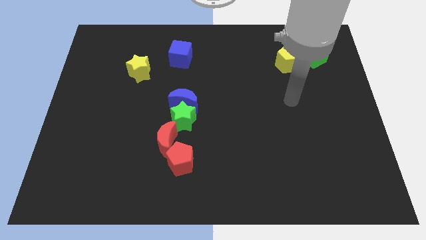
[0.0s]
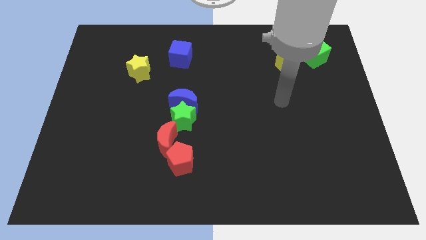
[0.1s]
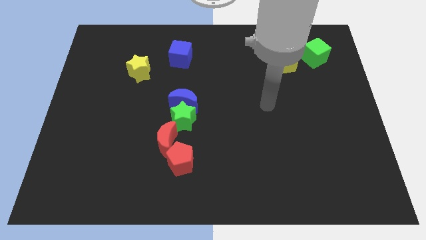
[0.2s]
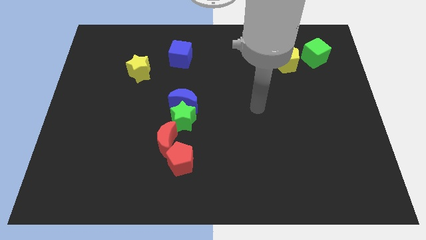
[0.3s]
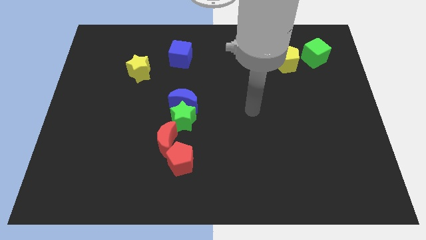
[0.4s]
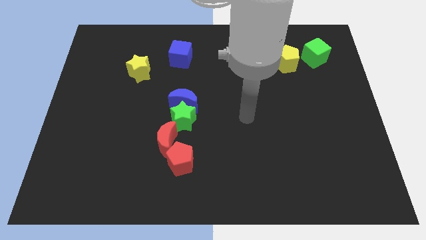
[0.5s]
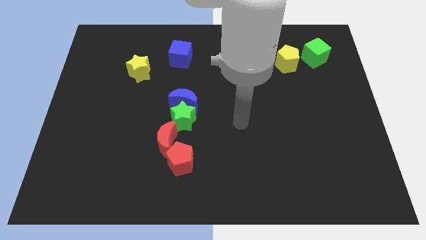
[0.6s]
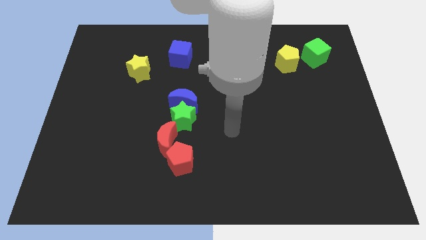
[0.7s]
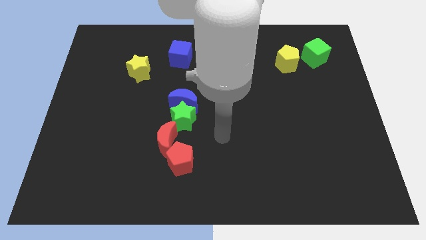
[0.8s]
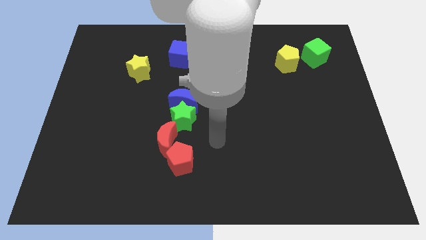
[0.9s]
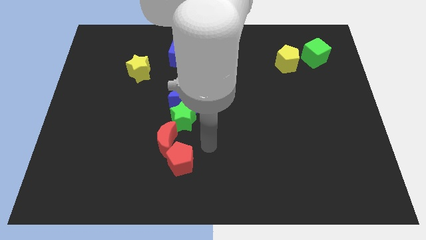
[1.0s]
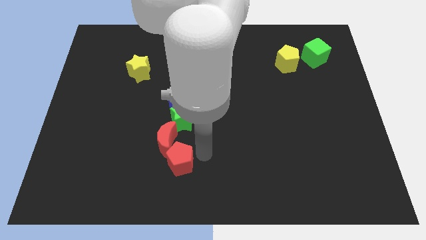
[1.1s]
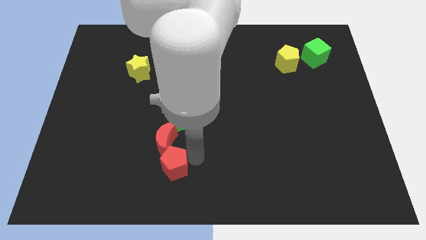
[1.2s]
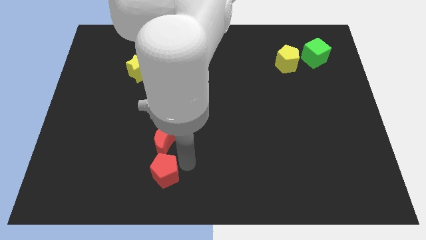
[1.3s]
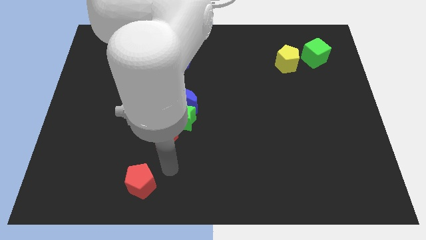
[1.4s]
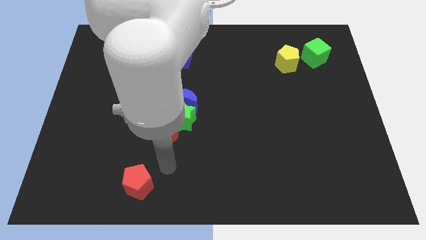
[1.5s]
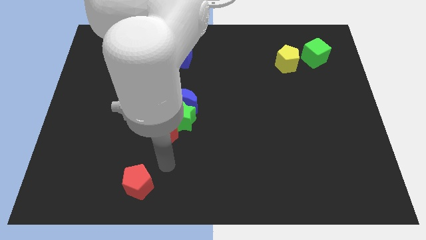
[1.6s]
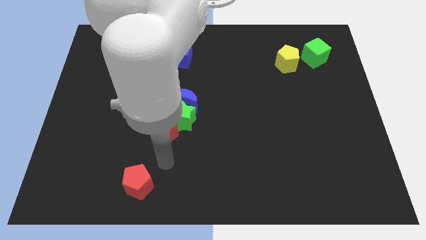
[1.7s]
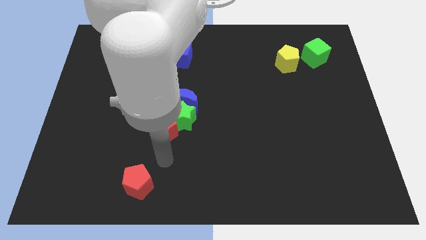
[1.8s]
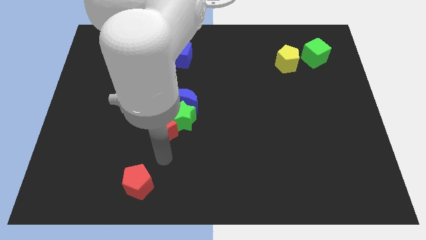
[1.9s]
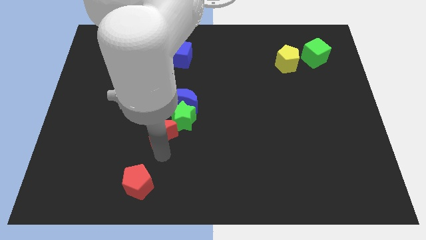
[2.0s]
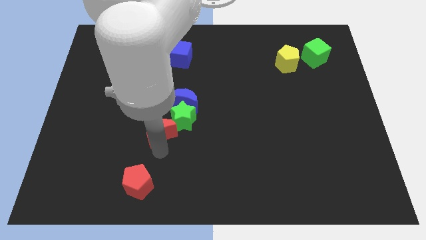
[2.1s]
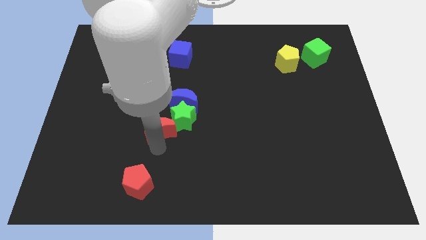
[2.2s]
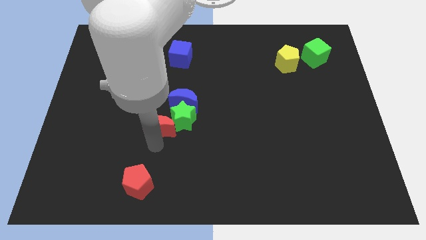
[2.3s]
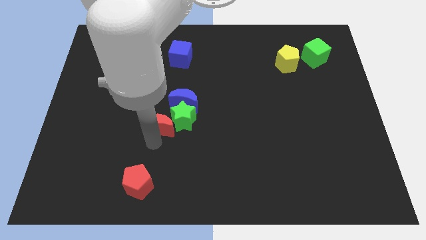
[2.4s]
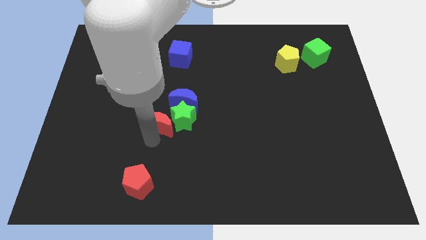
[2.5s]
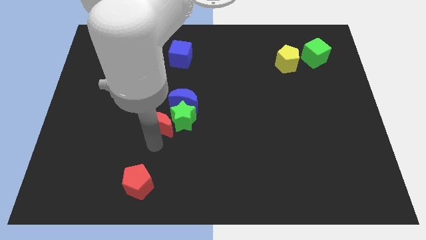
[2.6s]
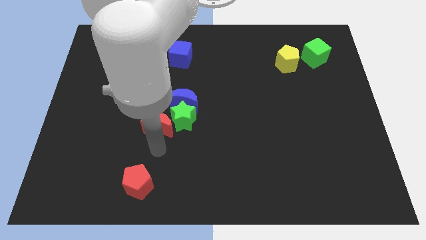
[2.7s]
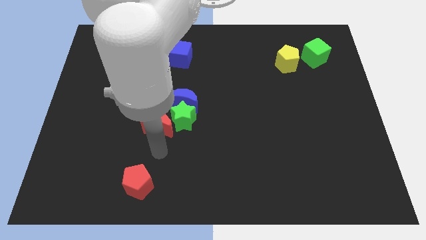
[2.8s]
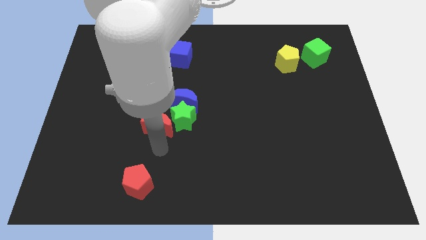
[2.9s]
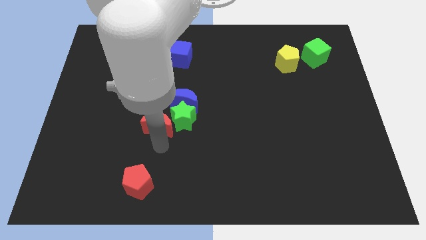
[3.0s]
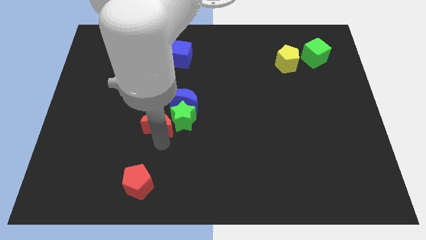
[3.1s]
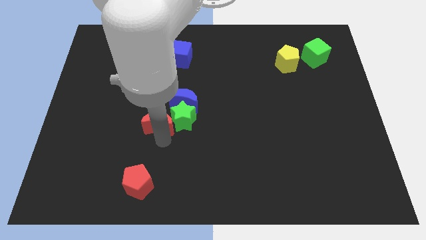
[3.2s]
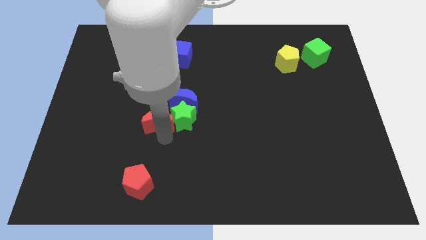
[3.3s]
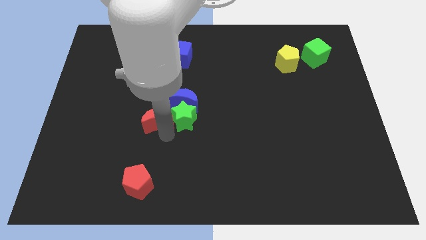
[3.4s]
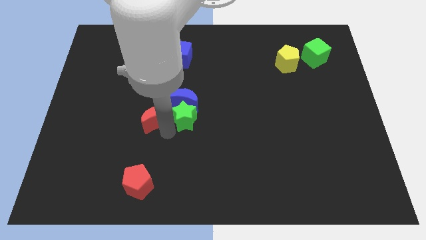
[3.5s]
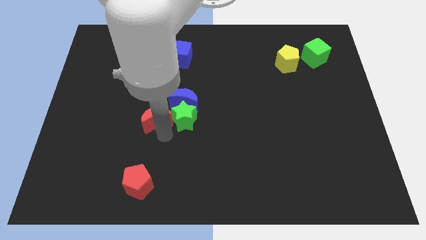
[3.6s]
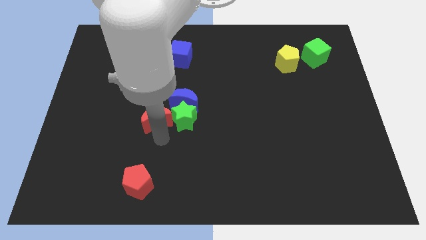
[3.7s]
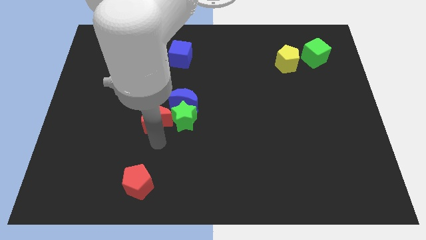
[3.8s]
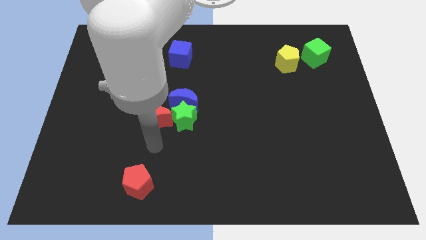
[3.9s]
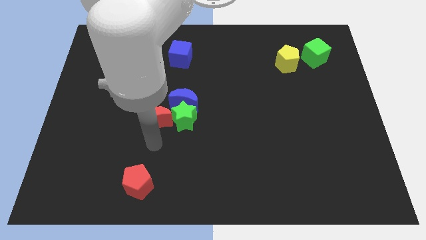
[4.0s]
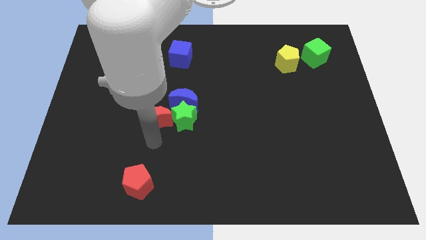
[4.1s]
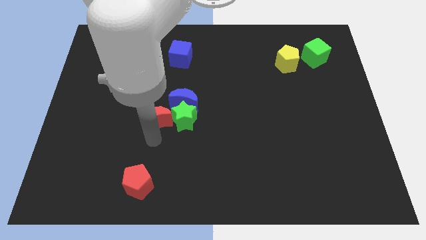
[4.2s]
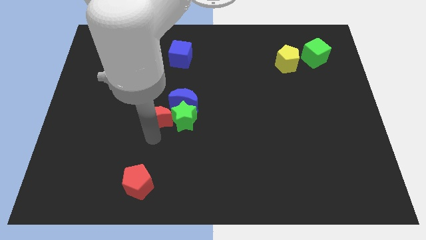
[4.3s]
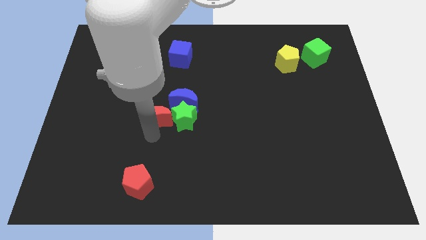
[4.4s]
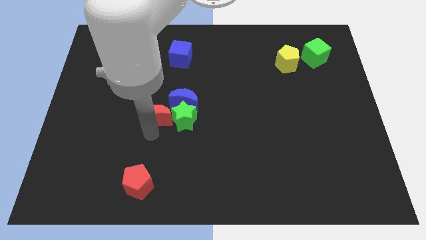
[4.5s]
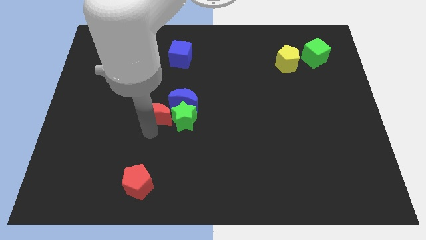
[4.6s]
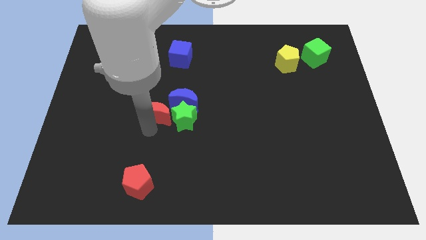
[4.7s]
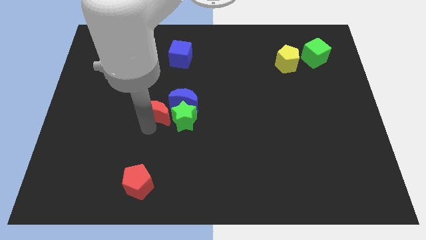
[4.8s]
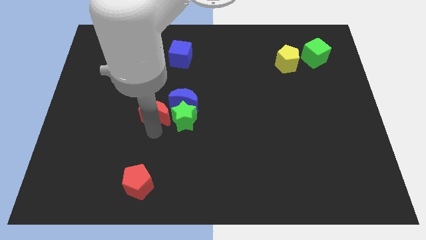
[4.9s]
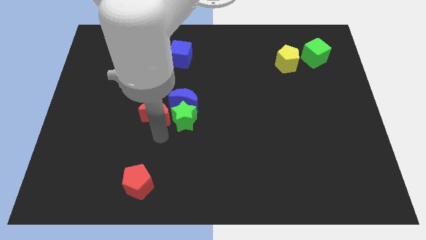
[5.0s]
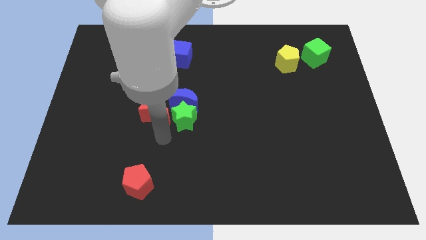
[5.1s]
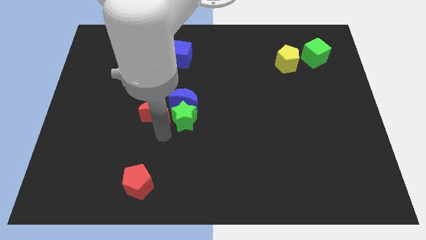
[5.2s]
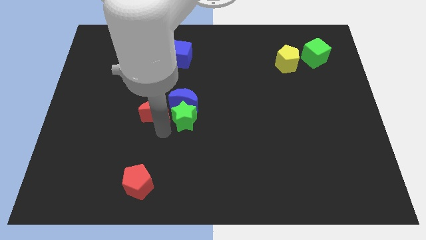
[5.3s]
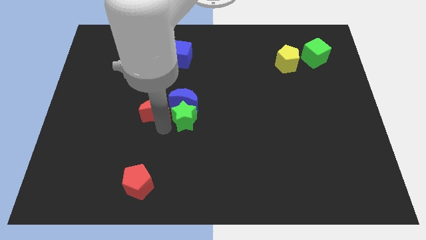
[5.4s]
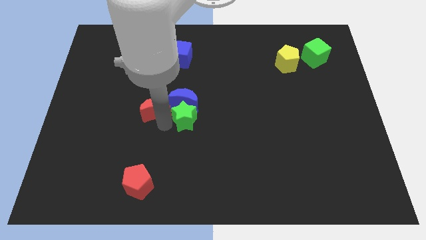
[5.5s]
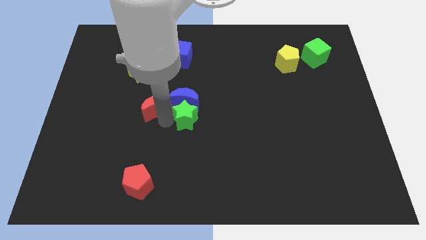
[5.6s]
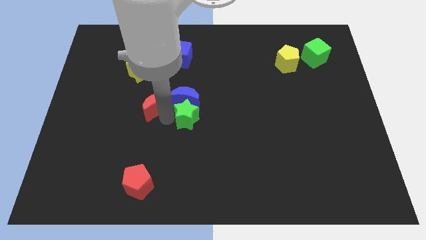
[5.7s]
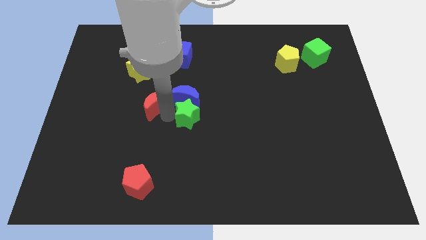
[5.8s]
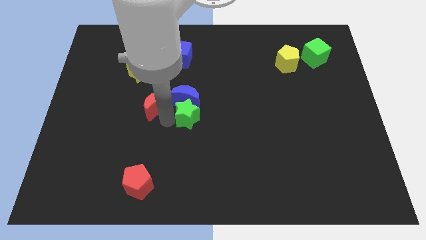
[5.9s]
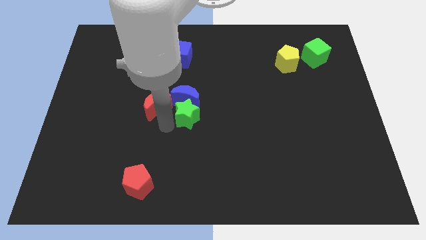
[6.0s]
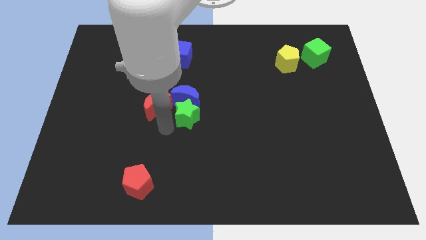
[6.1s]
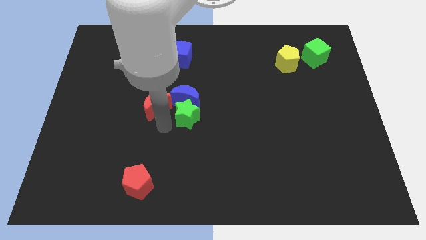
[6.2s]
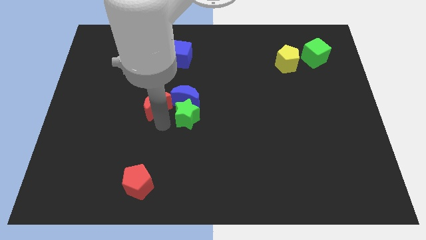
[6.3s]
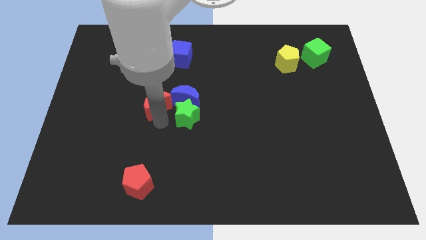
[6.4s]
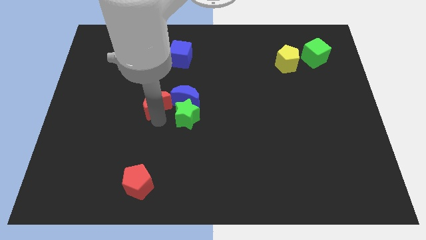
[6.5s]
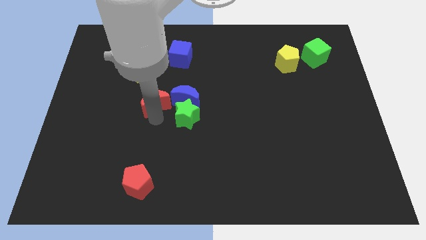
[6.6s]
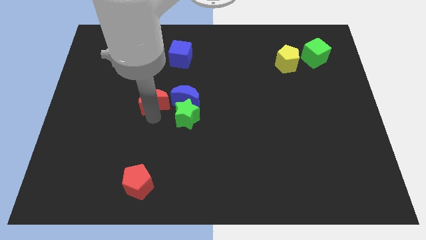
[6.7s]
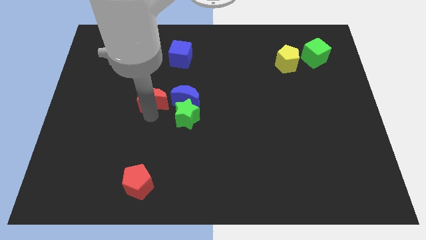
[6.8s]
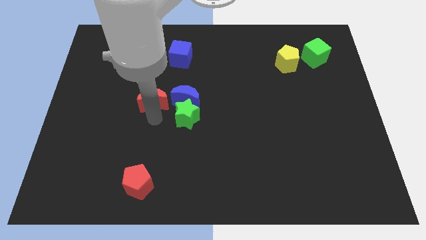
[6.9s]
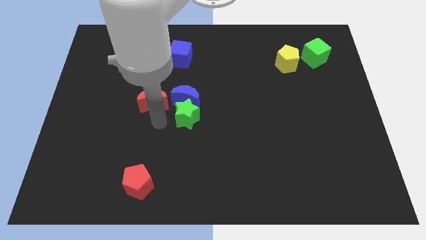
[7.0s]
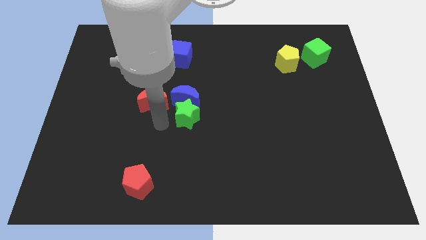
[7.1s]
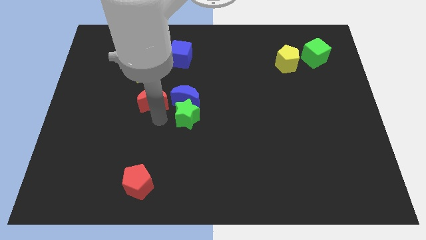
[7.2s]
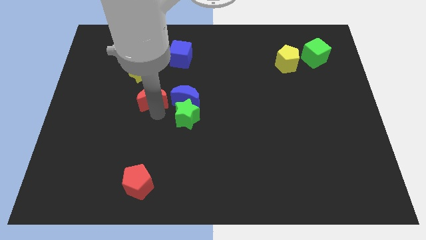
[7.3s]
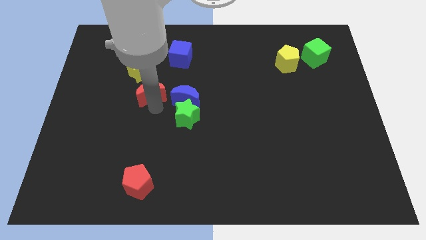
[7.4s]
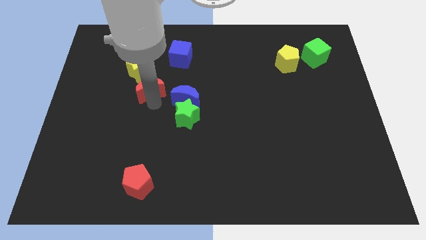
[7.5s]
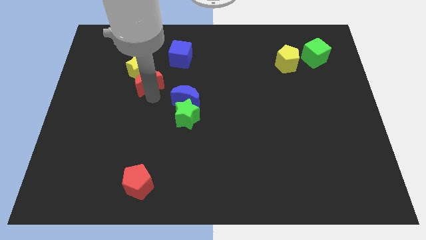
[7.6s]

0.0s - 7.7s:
slide the red moon towards the yellow star

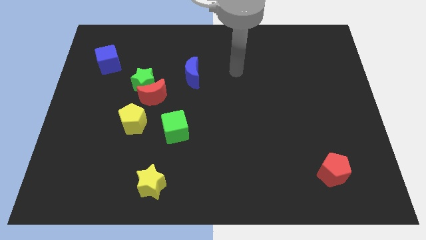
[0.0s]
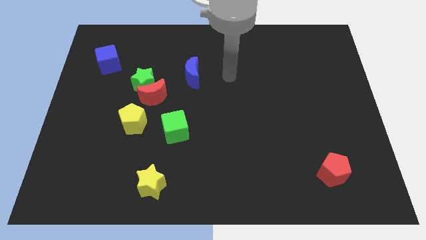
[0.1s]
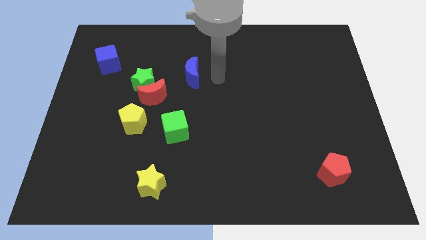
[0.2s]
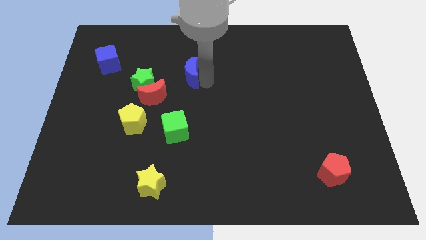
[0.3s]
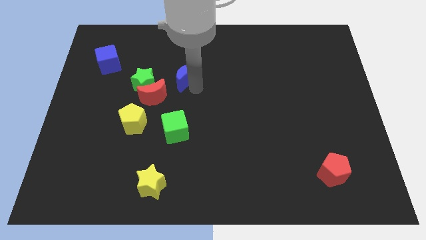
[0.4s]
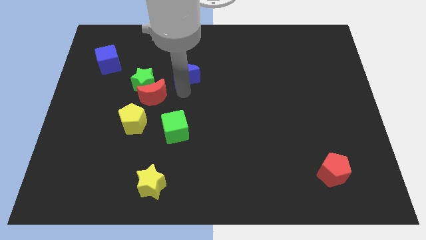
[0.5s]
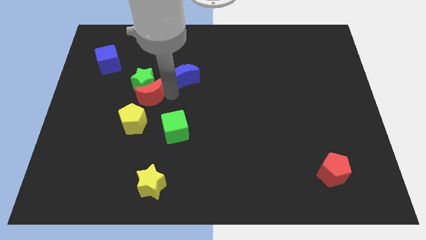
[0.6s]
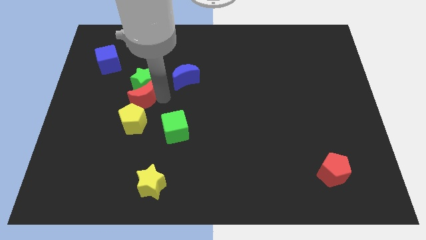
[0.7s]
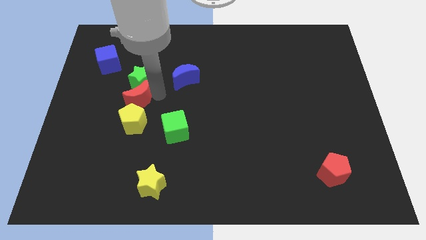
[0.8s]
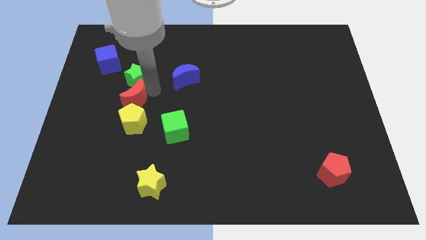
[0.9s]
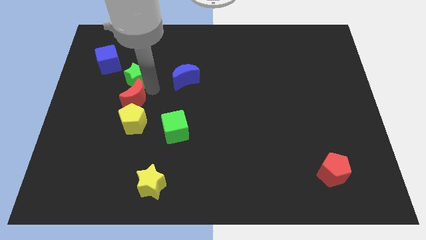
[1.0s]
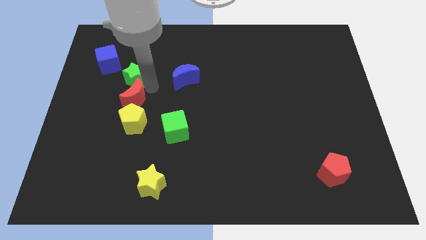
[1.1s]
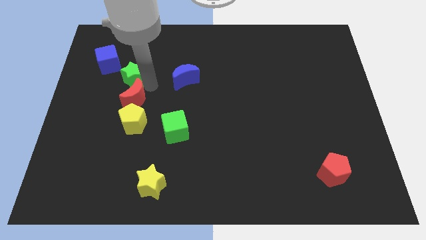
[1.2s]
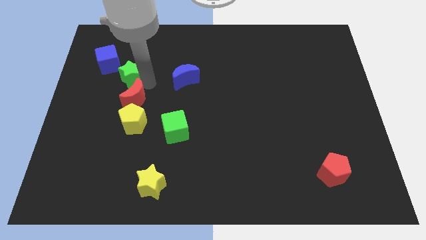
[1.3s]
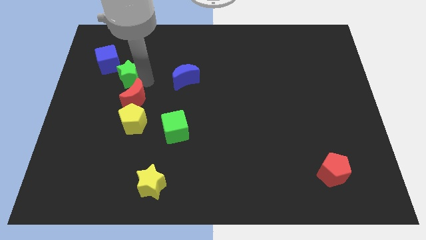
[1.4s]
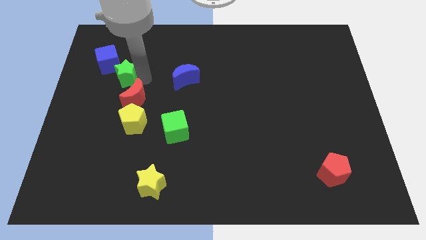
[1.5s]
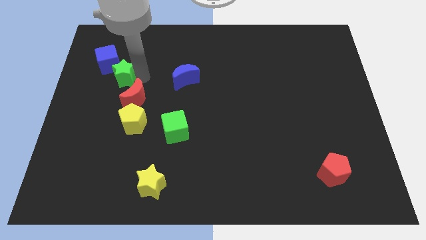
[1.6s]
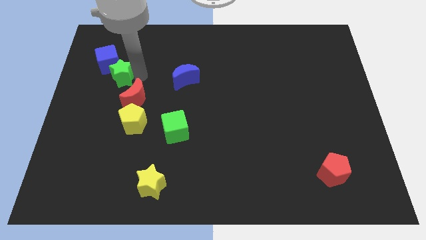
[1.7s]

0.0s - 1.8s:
put the green star close to the blue cube
